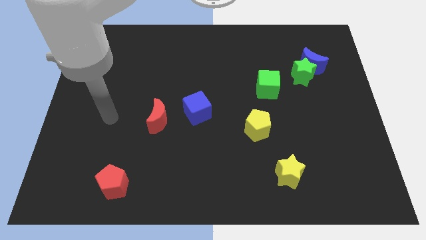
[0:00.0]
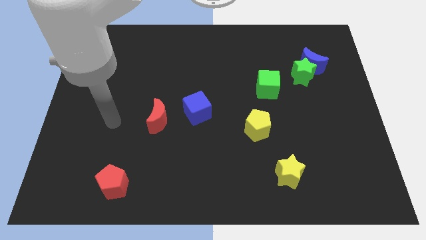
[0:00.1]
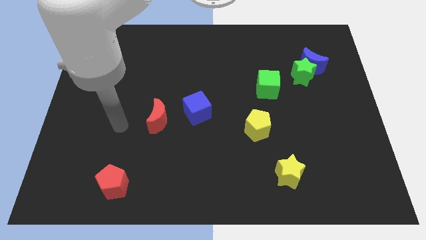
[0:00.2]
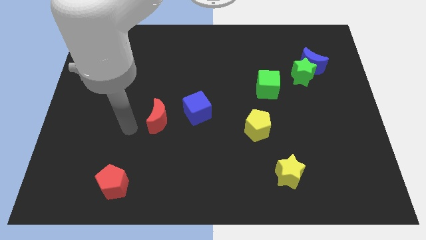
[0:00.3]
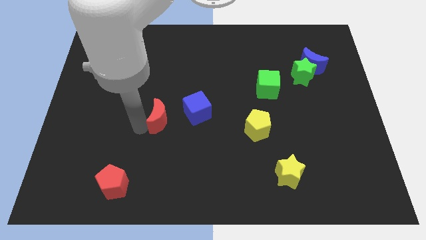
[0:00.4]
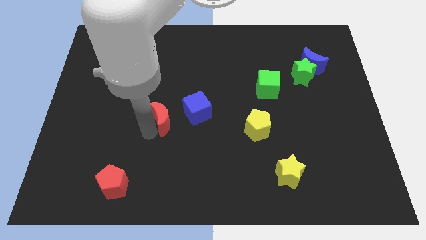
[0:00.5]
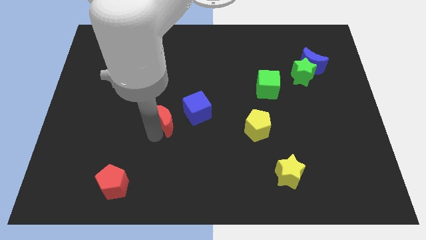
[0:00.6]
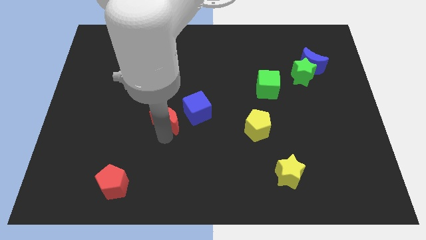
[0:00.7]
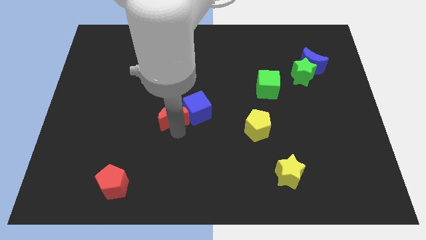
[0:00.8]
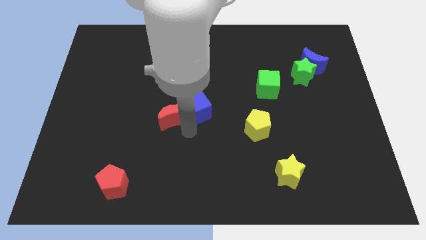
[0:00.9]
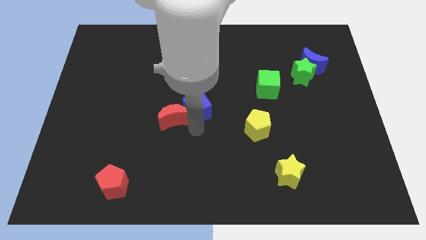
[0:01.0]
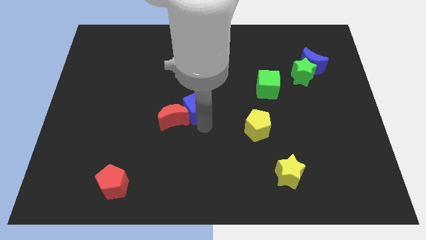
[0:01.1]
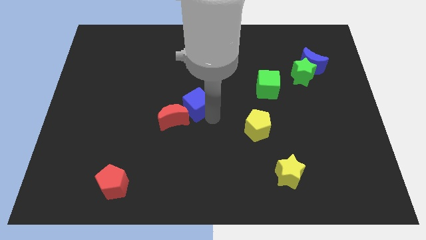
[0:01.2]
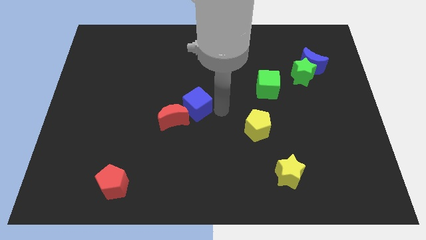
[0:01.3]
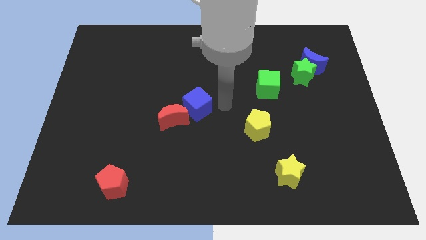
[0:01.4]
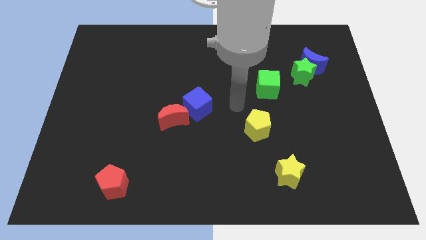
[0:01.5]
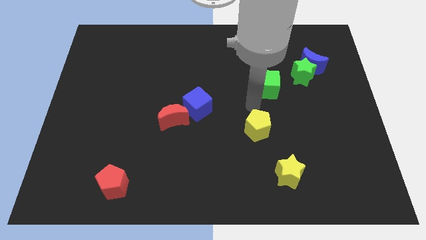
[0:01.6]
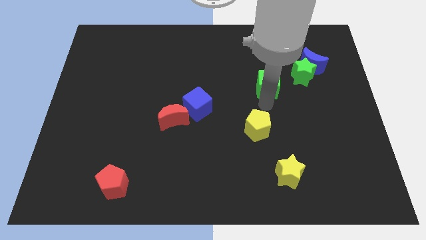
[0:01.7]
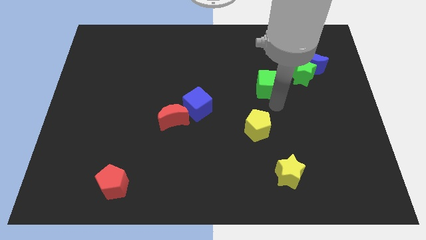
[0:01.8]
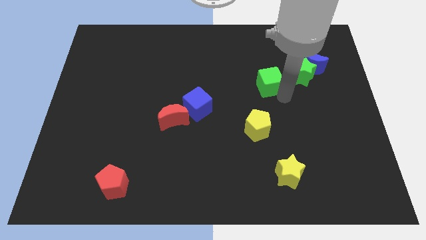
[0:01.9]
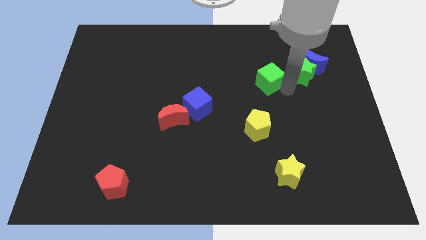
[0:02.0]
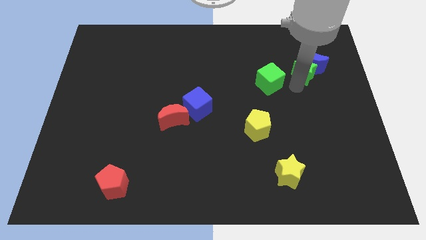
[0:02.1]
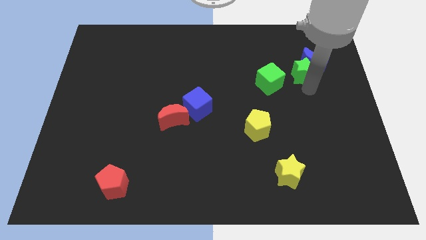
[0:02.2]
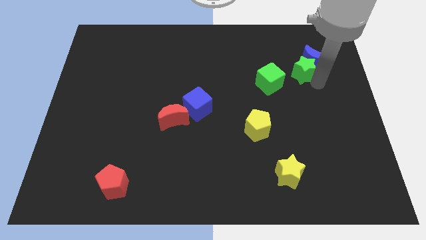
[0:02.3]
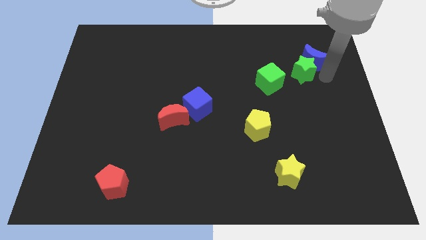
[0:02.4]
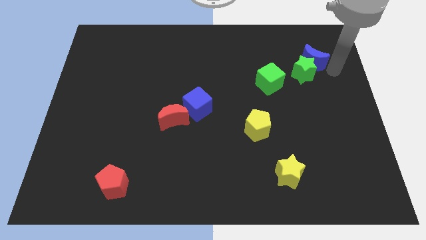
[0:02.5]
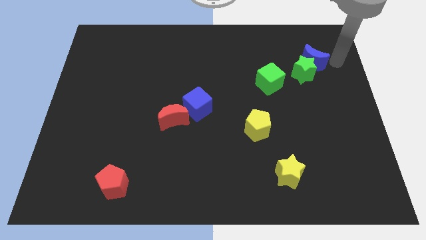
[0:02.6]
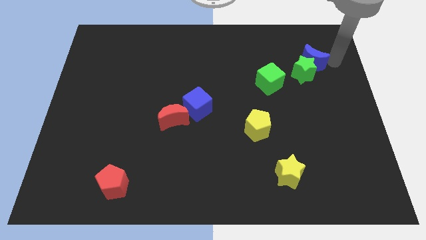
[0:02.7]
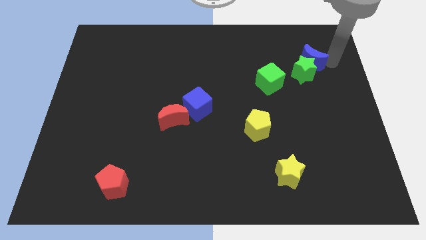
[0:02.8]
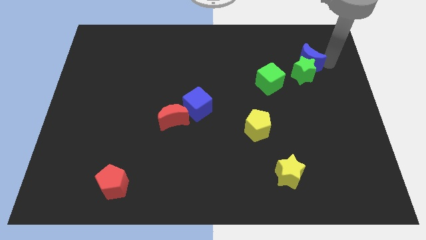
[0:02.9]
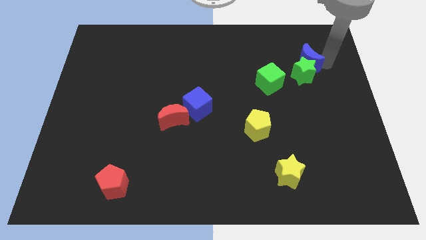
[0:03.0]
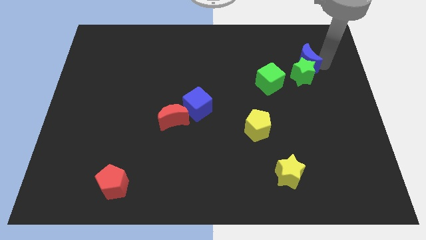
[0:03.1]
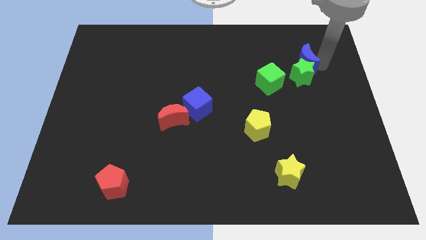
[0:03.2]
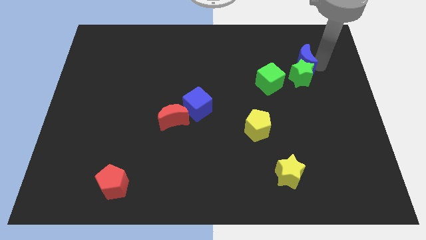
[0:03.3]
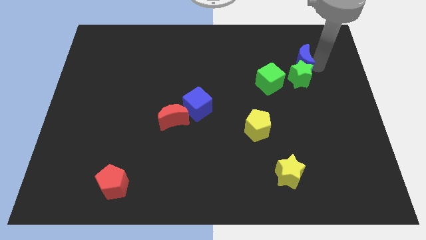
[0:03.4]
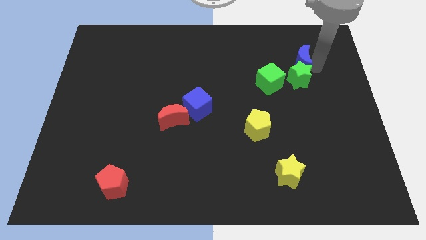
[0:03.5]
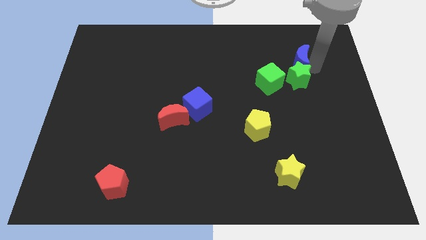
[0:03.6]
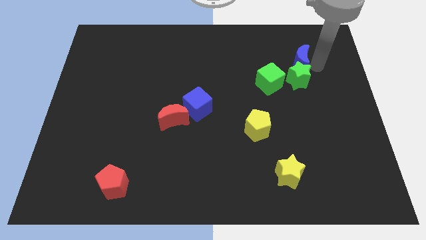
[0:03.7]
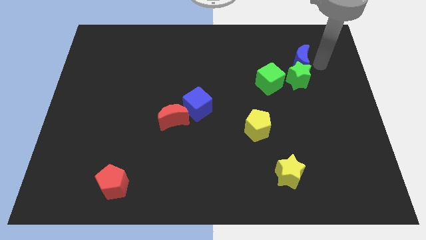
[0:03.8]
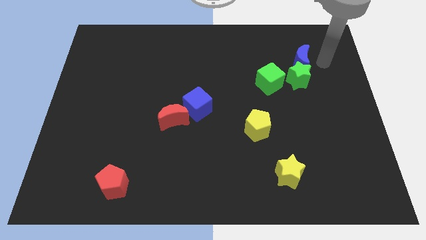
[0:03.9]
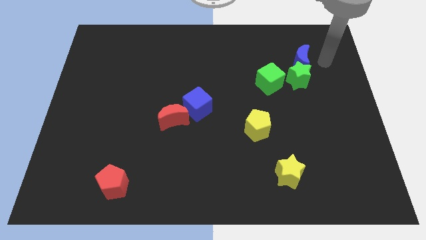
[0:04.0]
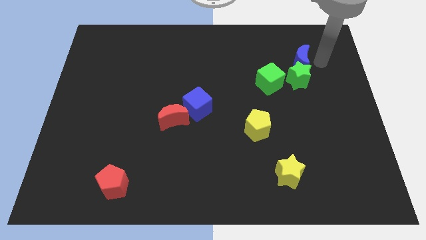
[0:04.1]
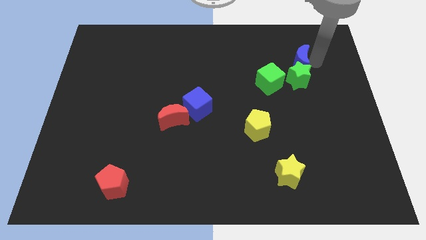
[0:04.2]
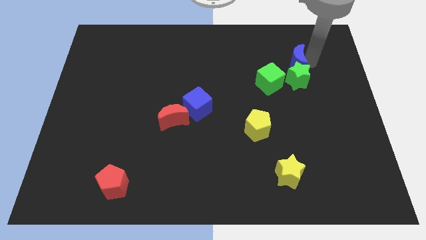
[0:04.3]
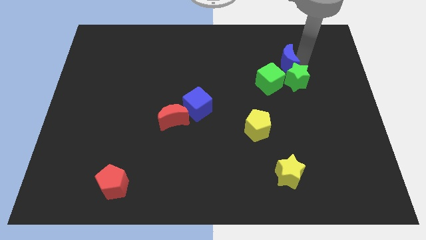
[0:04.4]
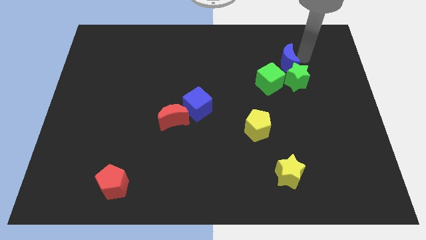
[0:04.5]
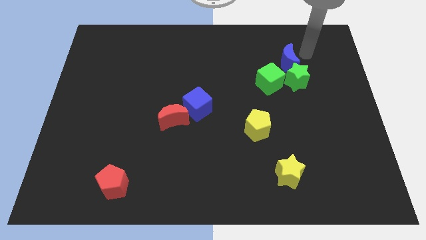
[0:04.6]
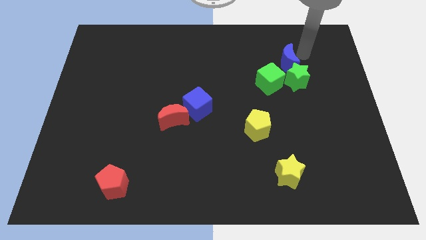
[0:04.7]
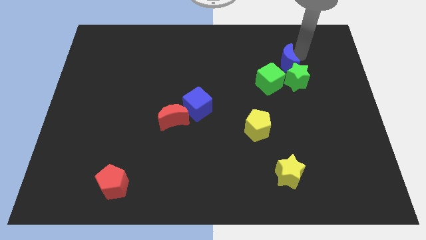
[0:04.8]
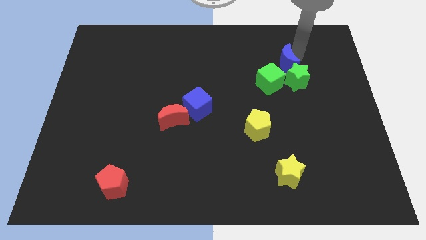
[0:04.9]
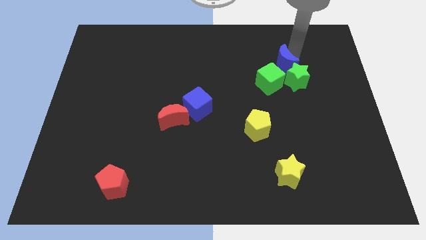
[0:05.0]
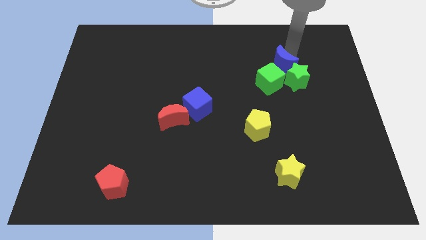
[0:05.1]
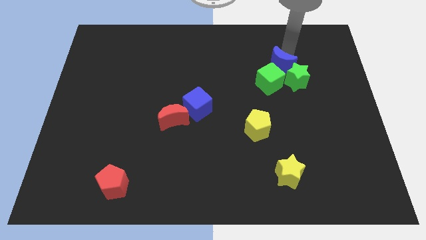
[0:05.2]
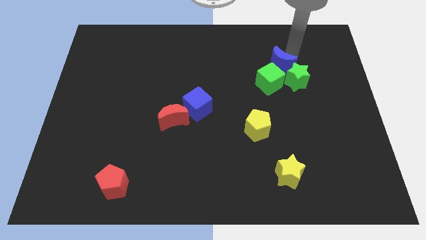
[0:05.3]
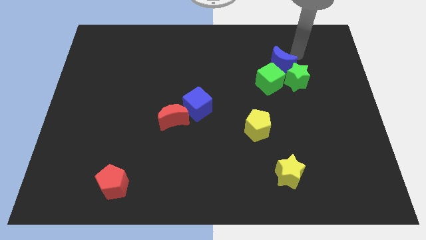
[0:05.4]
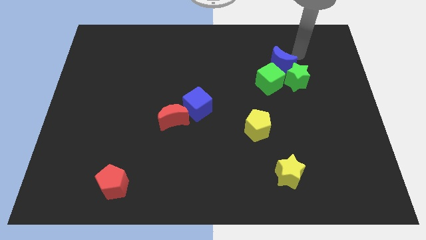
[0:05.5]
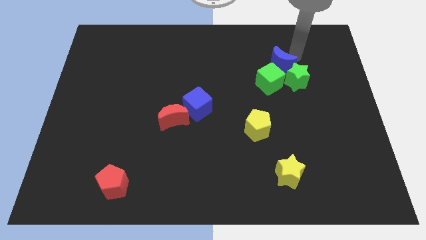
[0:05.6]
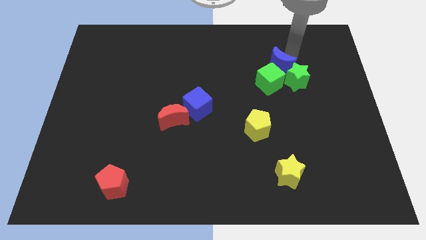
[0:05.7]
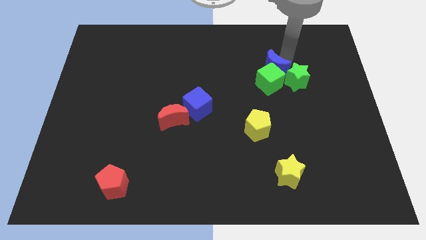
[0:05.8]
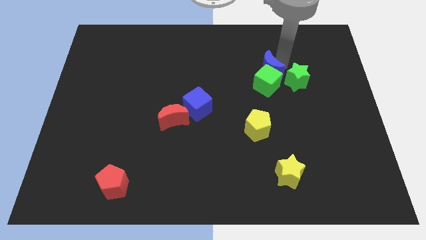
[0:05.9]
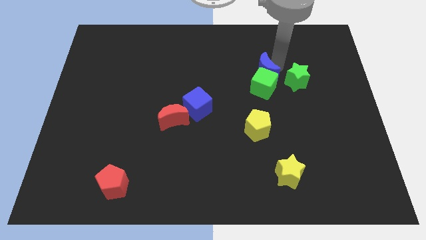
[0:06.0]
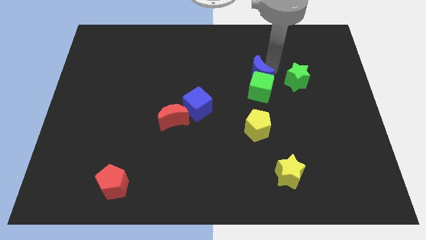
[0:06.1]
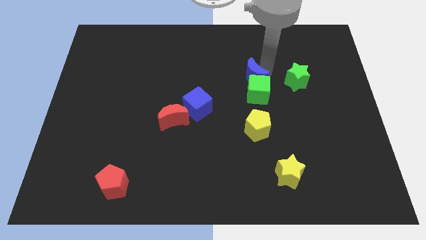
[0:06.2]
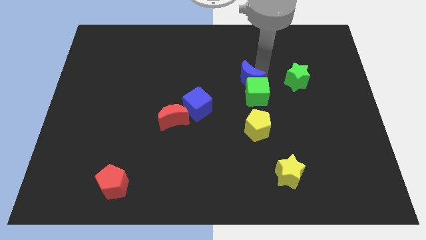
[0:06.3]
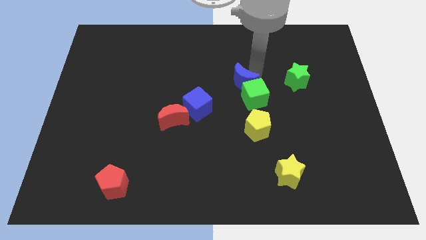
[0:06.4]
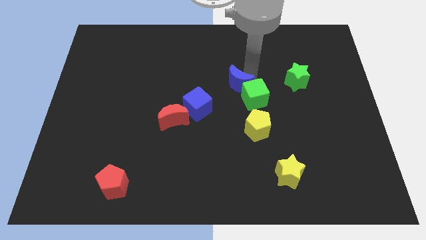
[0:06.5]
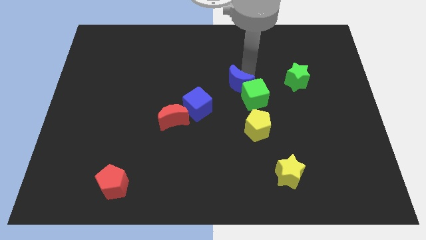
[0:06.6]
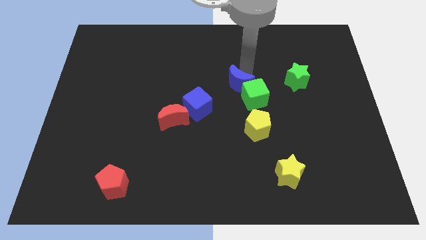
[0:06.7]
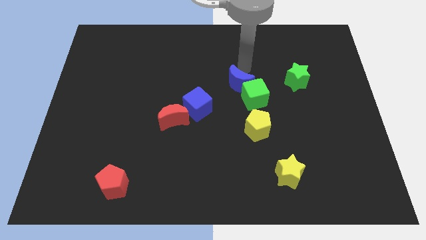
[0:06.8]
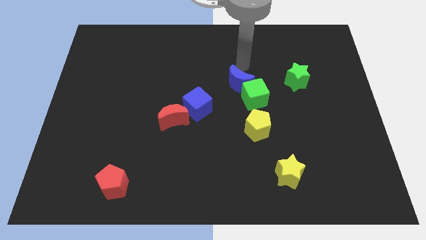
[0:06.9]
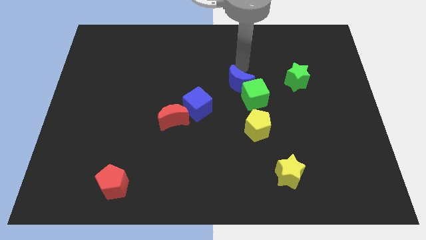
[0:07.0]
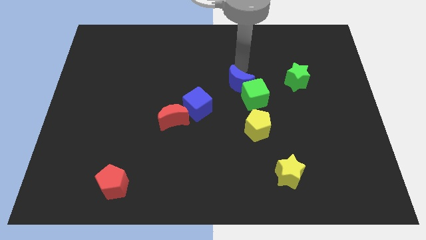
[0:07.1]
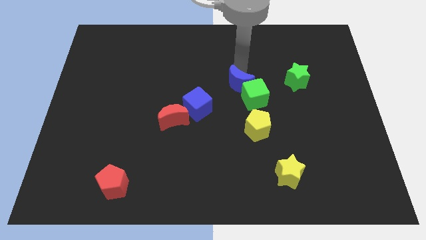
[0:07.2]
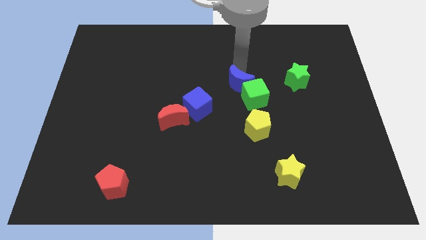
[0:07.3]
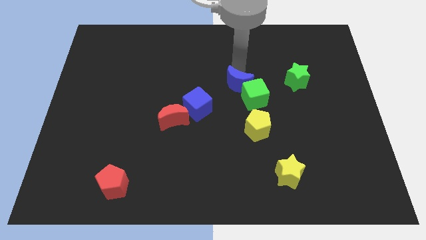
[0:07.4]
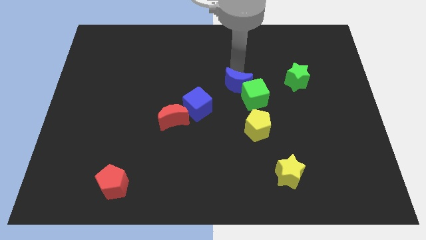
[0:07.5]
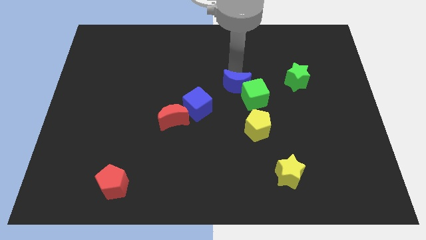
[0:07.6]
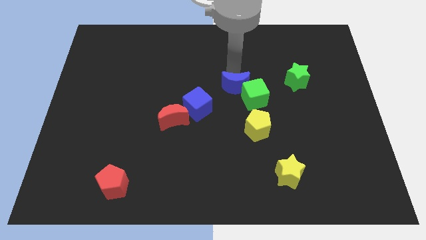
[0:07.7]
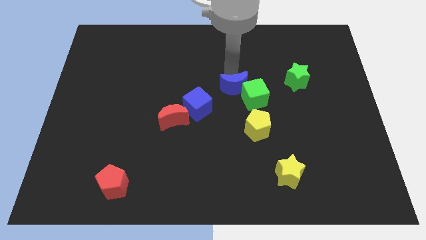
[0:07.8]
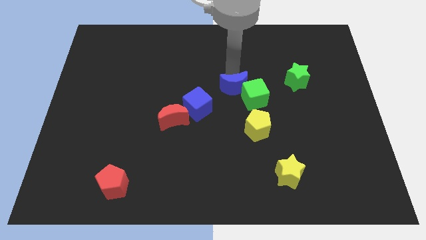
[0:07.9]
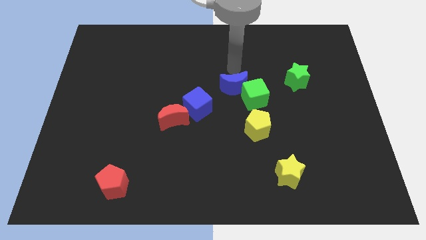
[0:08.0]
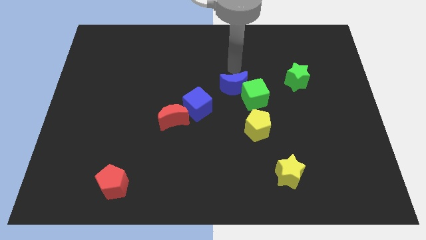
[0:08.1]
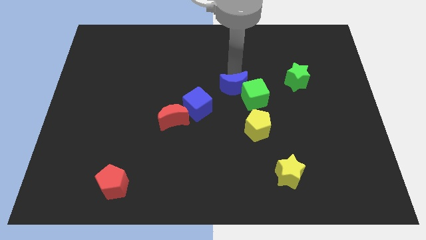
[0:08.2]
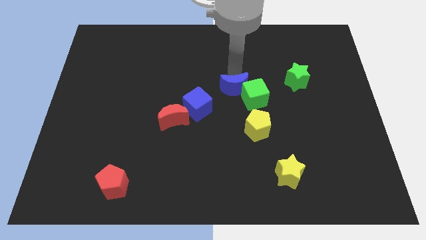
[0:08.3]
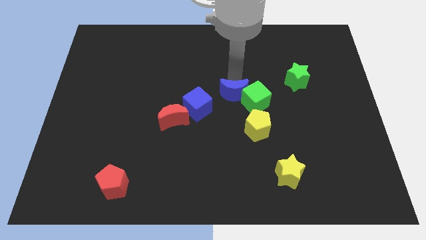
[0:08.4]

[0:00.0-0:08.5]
push the blue moon diagonally up and to the left of the yellow pentagon
